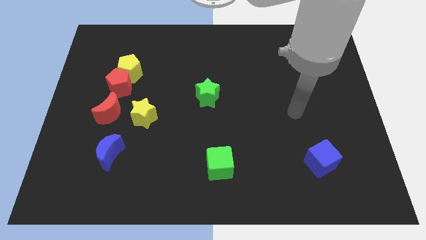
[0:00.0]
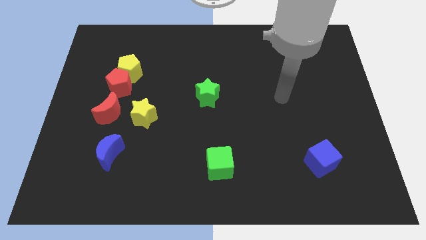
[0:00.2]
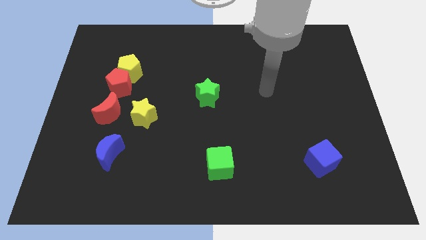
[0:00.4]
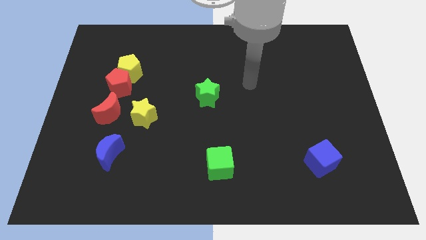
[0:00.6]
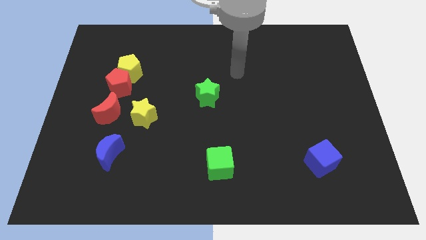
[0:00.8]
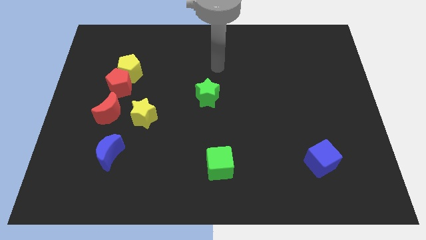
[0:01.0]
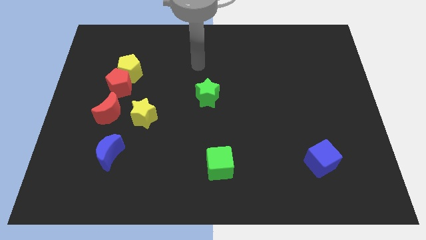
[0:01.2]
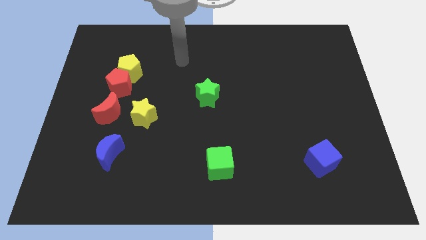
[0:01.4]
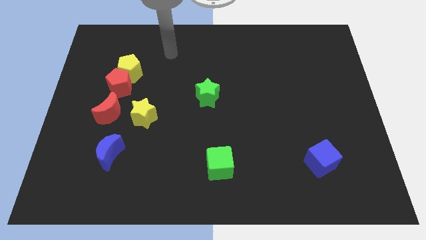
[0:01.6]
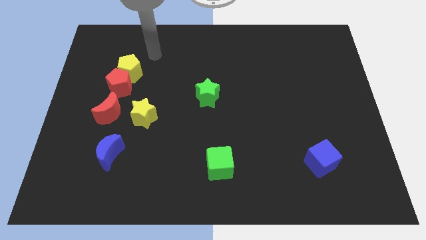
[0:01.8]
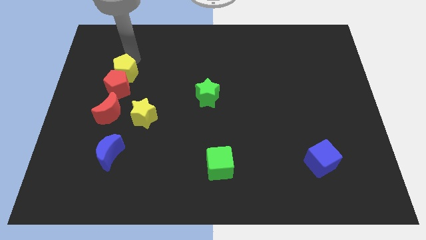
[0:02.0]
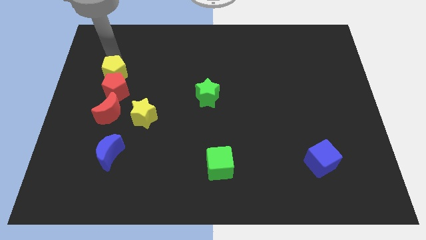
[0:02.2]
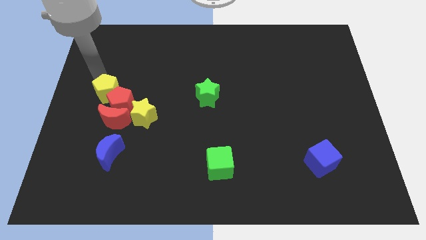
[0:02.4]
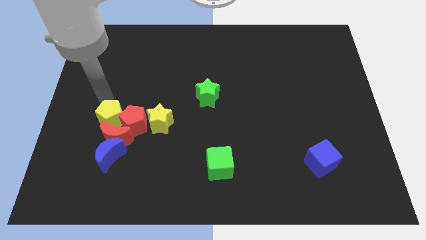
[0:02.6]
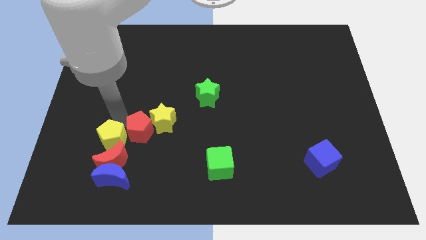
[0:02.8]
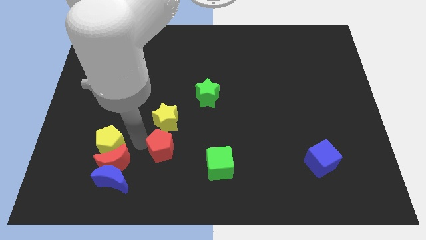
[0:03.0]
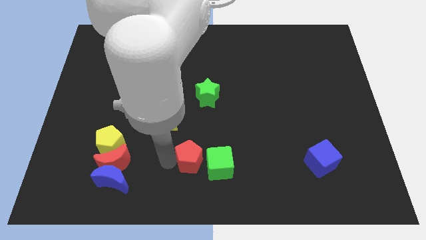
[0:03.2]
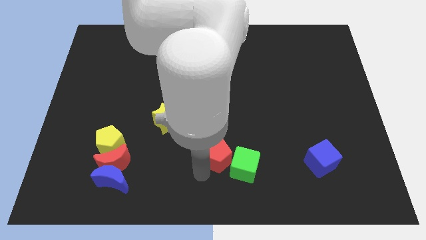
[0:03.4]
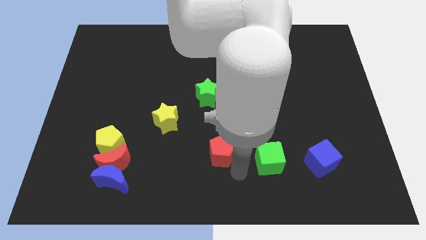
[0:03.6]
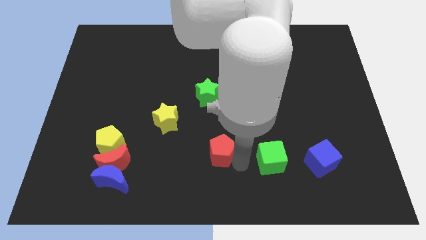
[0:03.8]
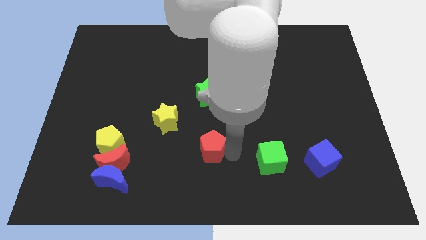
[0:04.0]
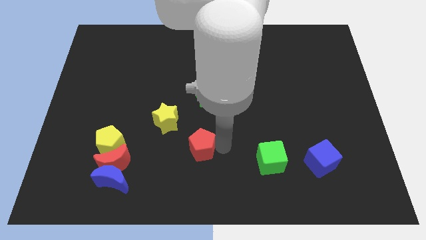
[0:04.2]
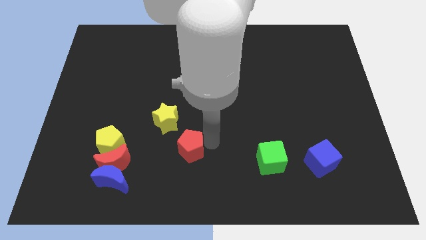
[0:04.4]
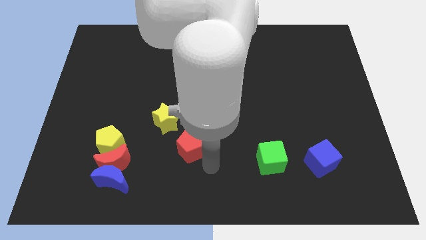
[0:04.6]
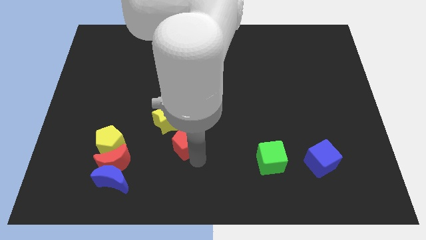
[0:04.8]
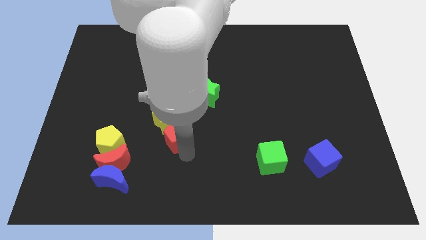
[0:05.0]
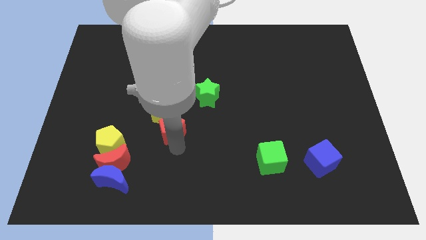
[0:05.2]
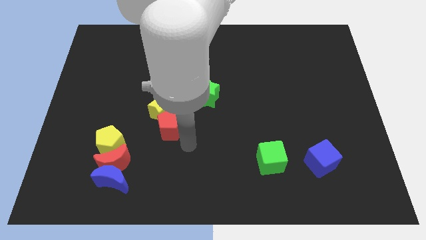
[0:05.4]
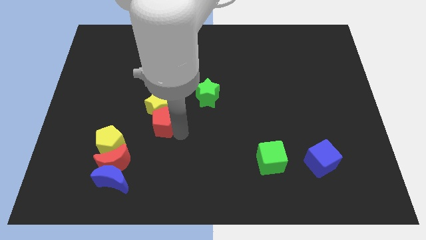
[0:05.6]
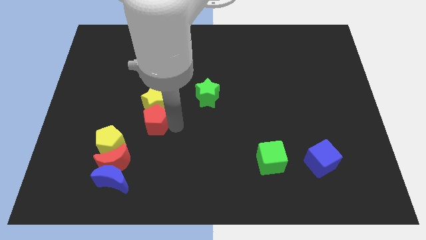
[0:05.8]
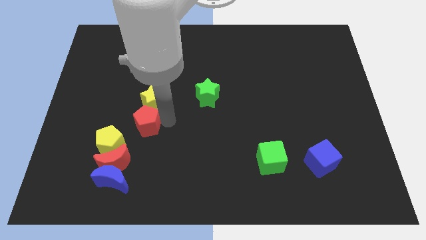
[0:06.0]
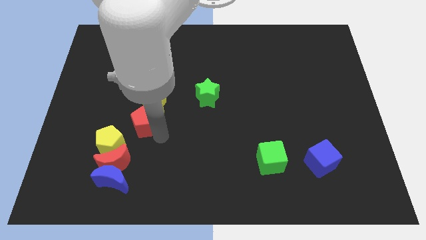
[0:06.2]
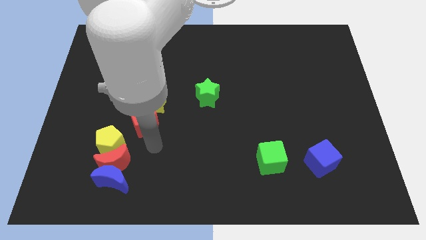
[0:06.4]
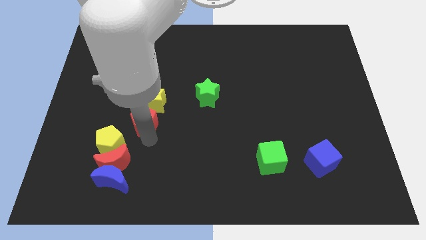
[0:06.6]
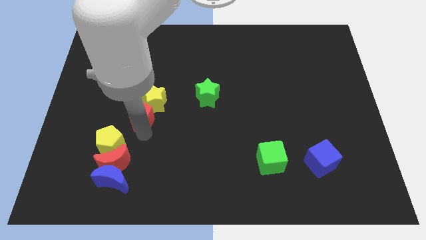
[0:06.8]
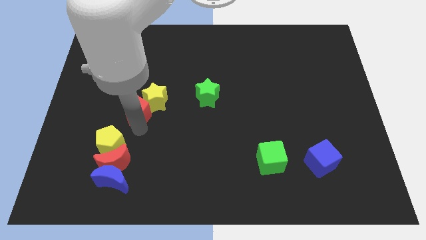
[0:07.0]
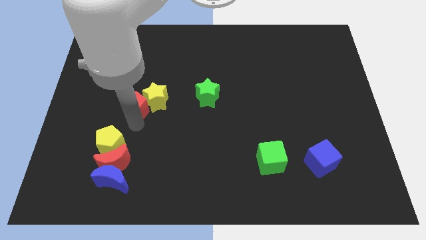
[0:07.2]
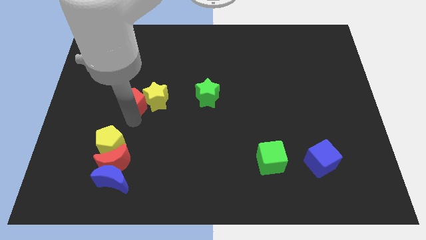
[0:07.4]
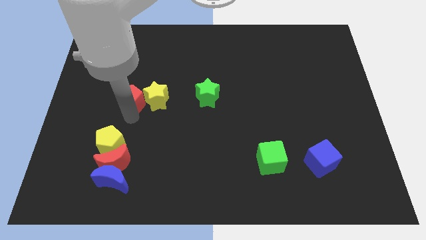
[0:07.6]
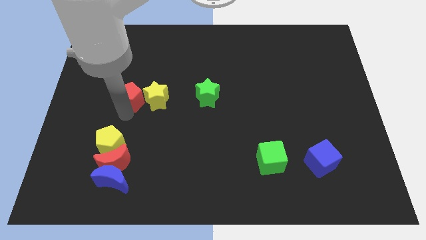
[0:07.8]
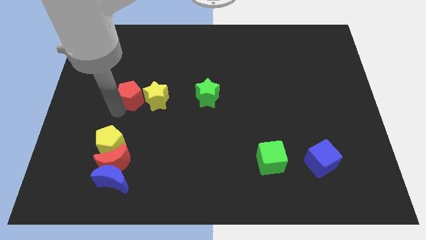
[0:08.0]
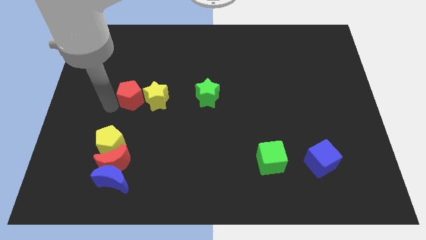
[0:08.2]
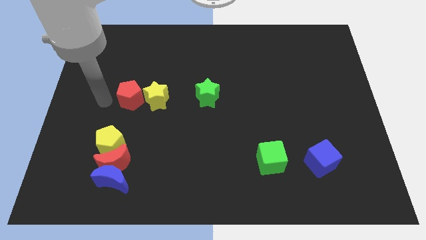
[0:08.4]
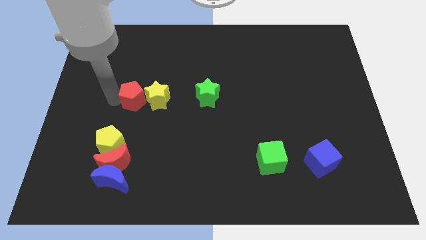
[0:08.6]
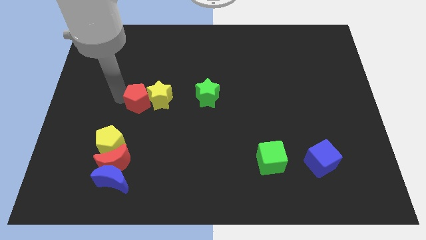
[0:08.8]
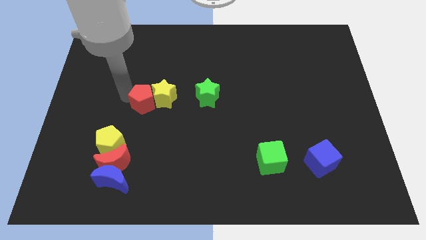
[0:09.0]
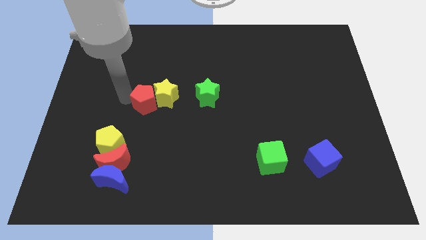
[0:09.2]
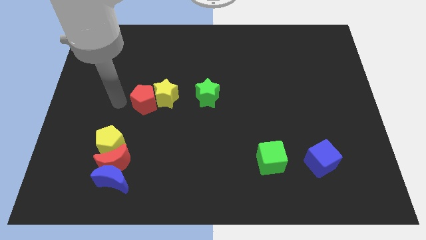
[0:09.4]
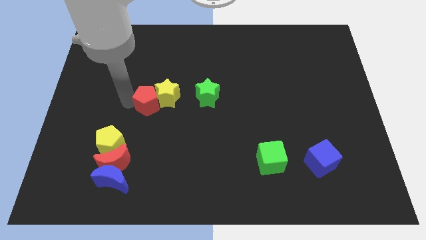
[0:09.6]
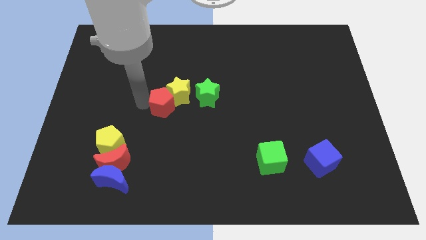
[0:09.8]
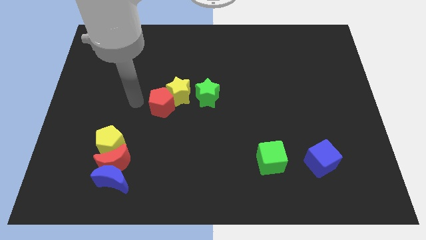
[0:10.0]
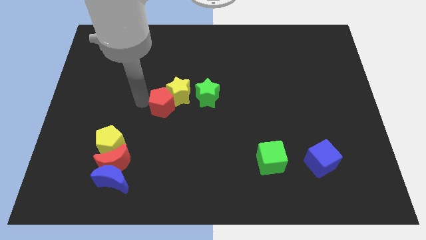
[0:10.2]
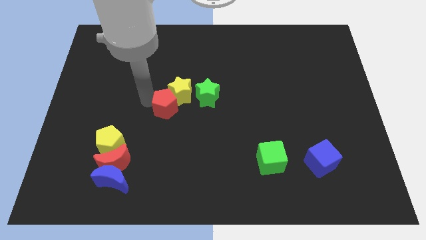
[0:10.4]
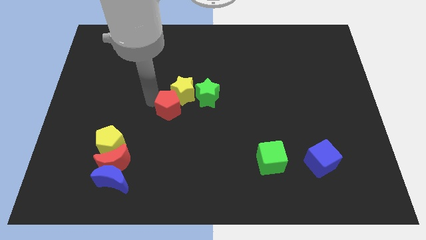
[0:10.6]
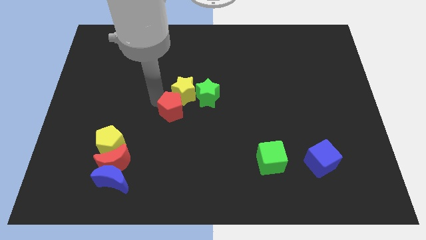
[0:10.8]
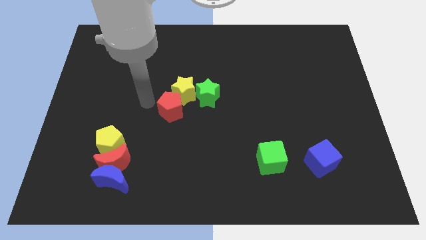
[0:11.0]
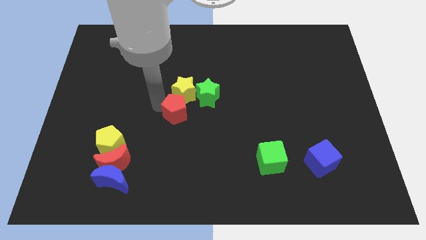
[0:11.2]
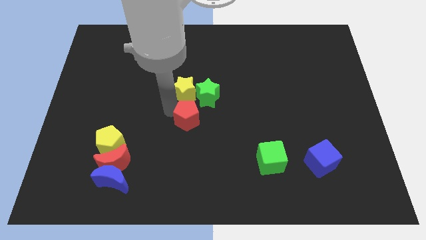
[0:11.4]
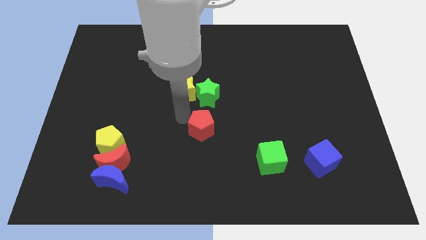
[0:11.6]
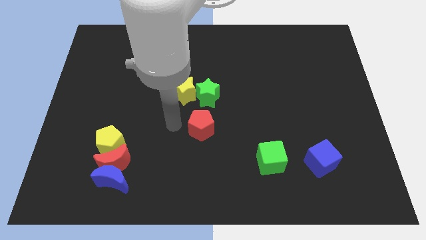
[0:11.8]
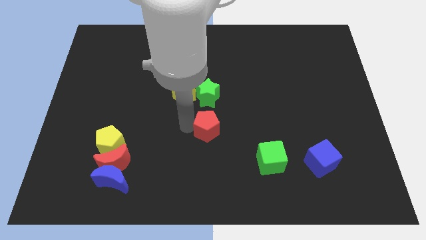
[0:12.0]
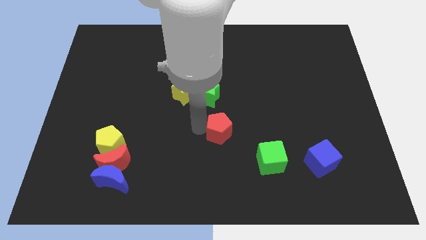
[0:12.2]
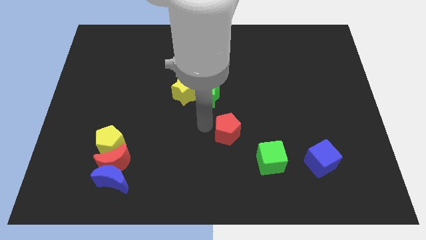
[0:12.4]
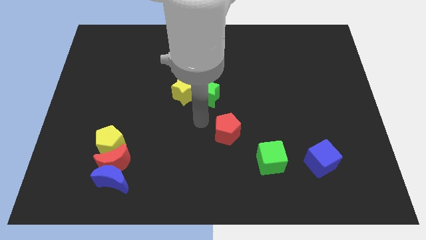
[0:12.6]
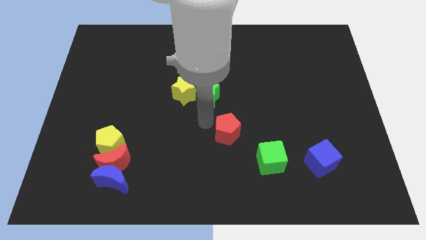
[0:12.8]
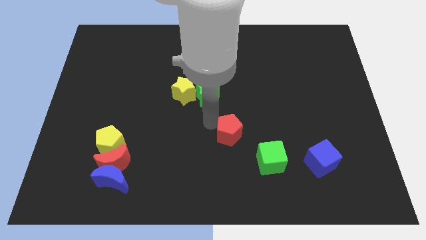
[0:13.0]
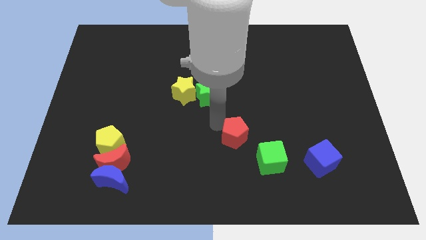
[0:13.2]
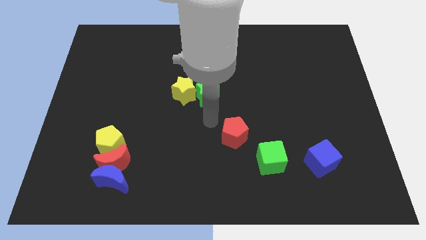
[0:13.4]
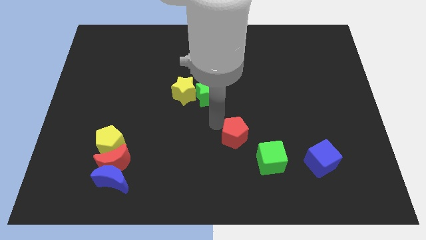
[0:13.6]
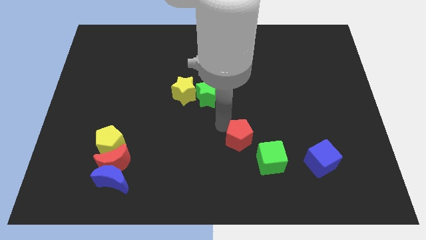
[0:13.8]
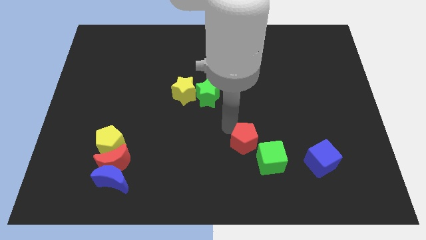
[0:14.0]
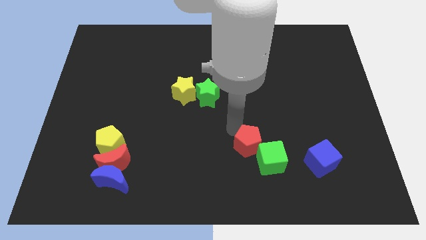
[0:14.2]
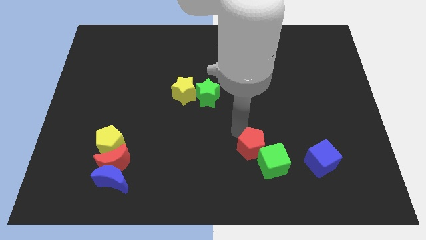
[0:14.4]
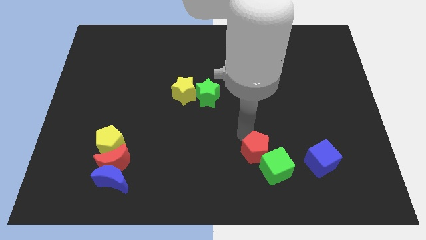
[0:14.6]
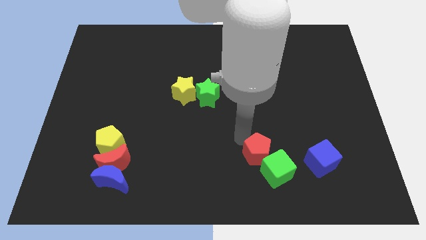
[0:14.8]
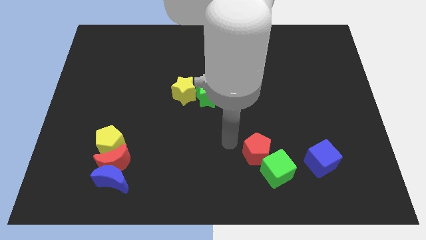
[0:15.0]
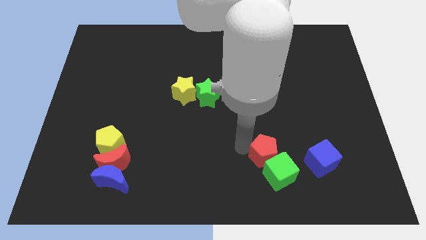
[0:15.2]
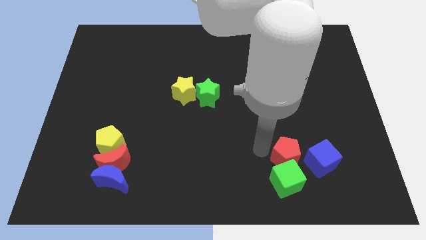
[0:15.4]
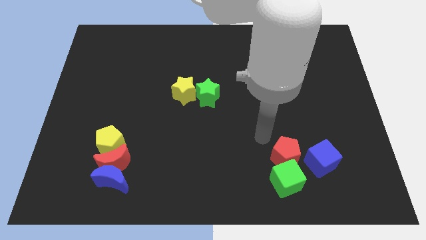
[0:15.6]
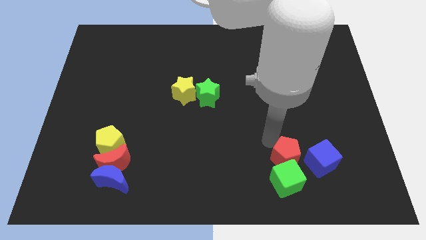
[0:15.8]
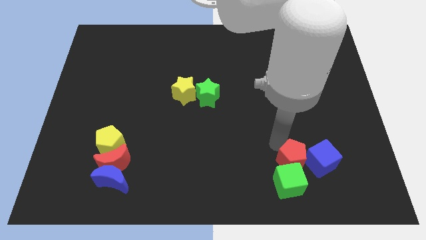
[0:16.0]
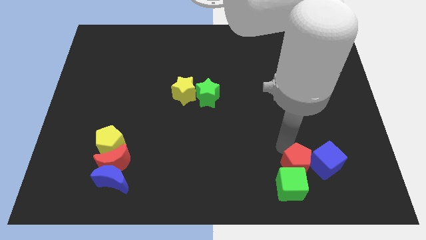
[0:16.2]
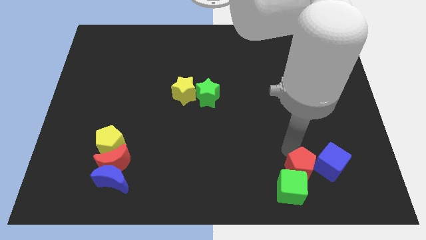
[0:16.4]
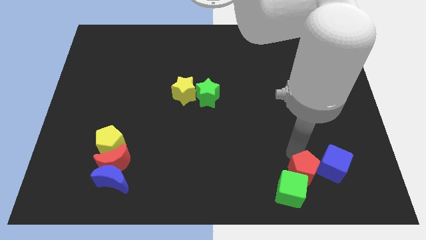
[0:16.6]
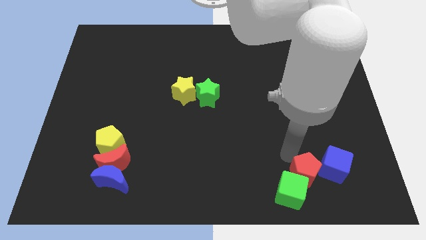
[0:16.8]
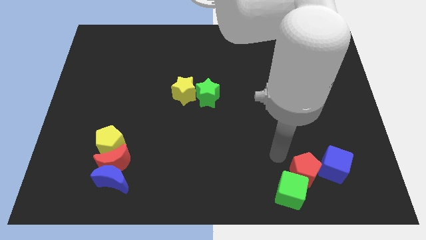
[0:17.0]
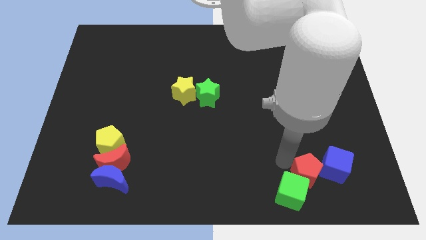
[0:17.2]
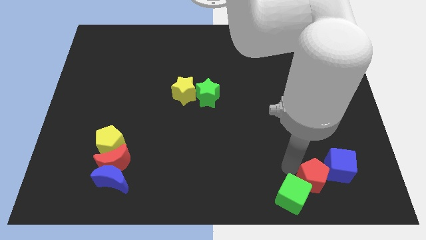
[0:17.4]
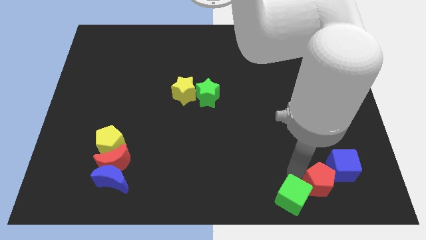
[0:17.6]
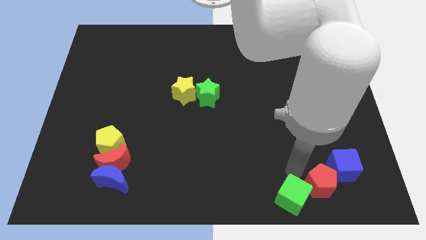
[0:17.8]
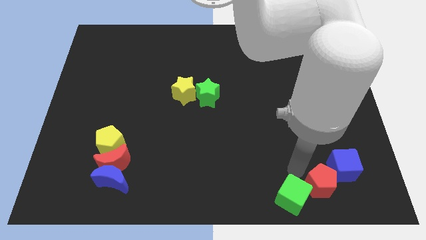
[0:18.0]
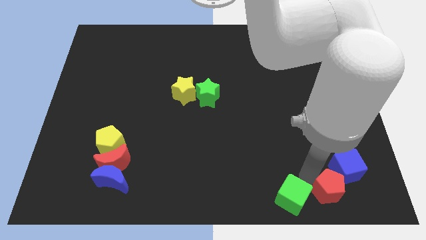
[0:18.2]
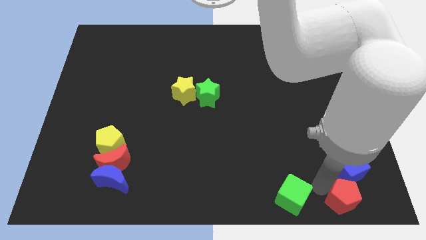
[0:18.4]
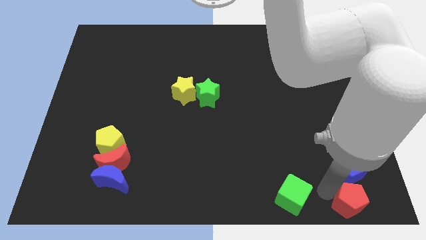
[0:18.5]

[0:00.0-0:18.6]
put the red pentagon to the bottom right corner
